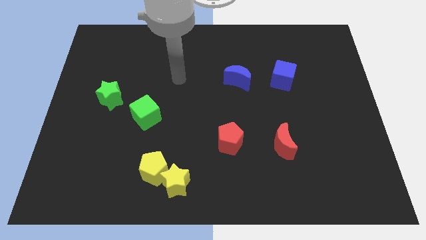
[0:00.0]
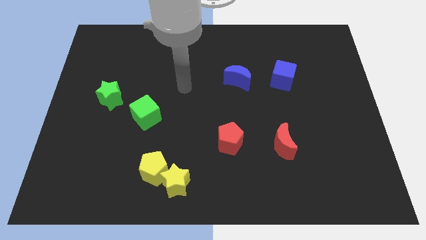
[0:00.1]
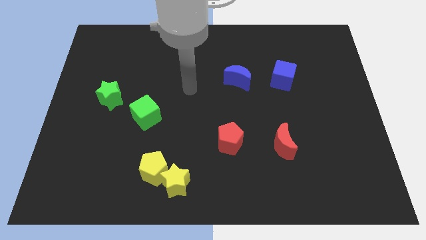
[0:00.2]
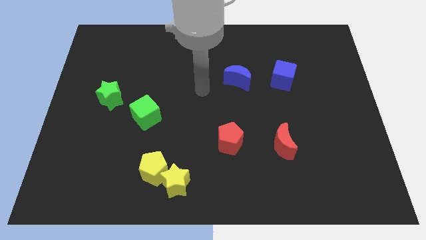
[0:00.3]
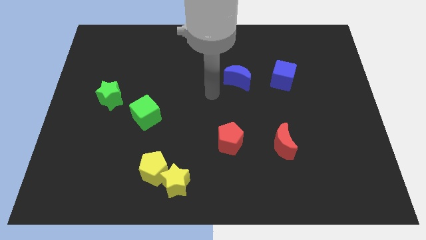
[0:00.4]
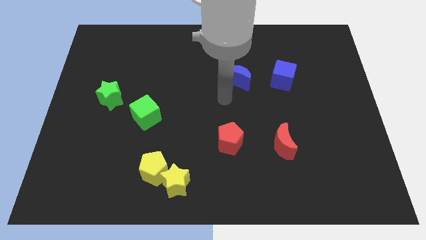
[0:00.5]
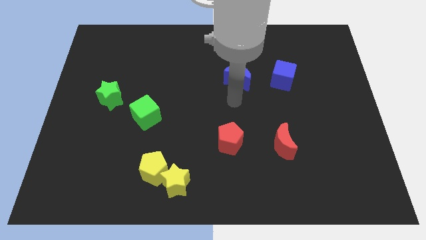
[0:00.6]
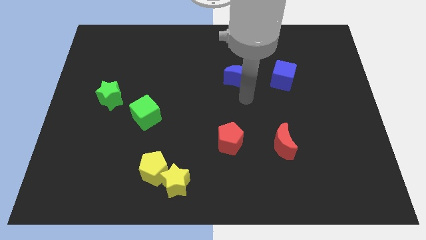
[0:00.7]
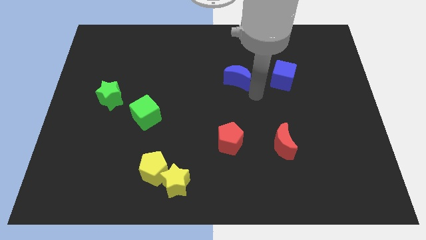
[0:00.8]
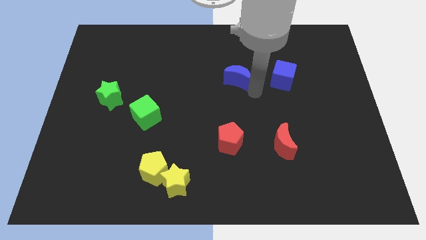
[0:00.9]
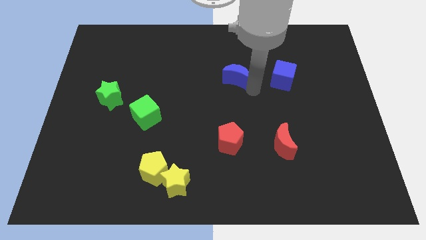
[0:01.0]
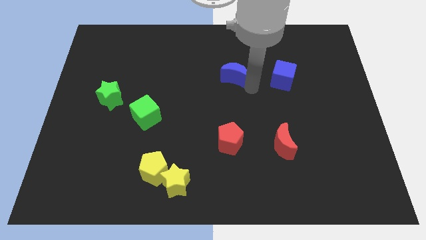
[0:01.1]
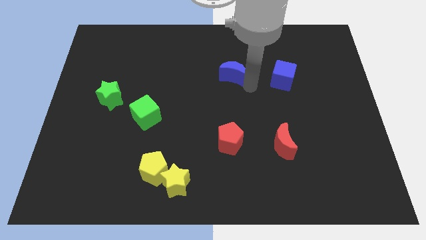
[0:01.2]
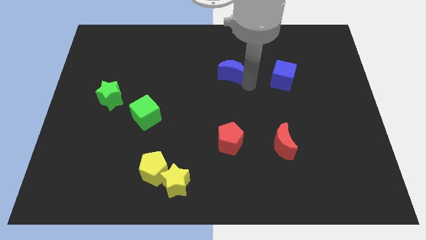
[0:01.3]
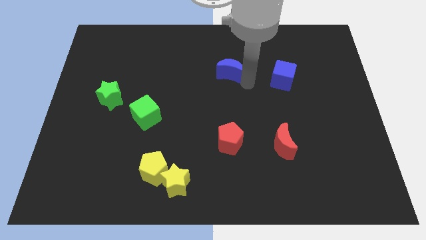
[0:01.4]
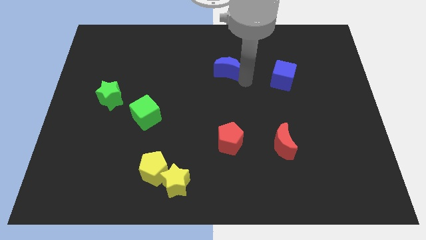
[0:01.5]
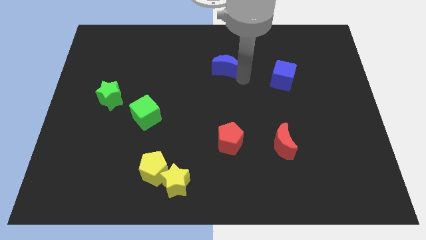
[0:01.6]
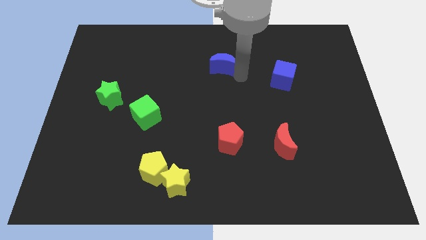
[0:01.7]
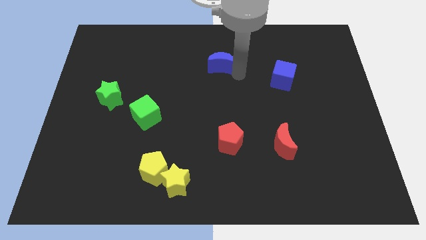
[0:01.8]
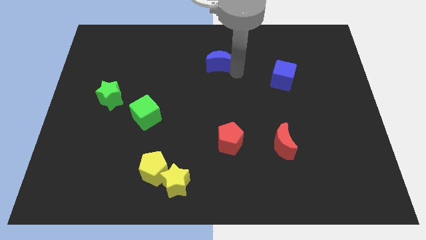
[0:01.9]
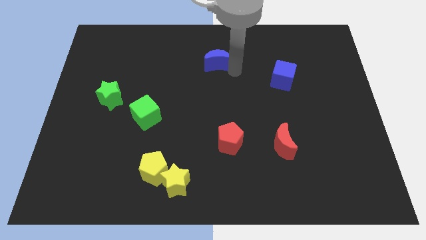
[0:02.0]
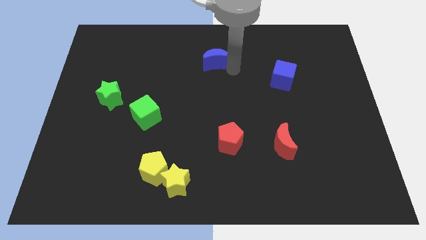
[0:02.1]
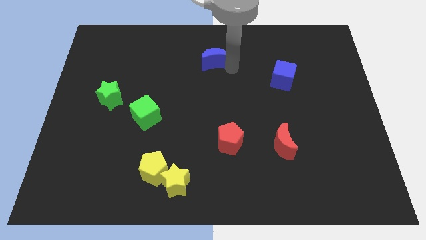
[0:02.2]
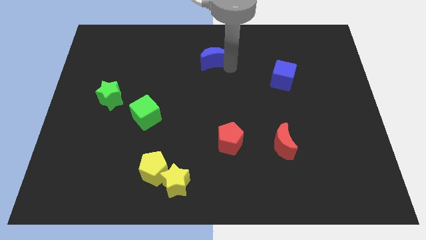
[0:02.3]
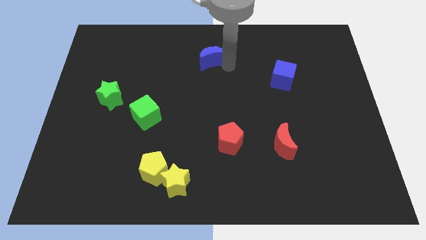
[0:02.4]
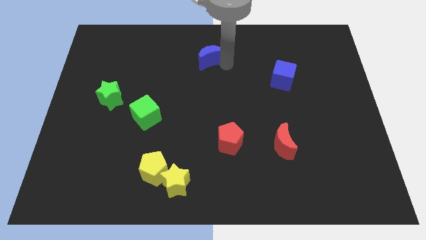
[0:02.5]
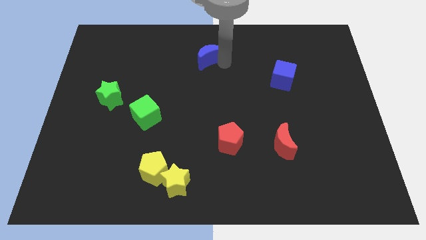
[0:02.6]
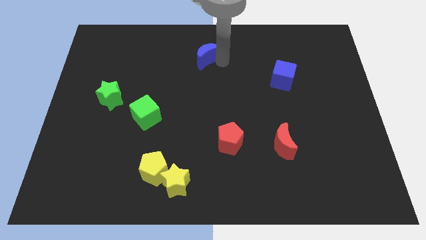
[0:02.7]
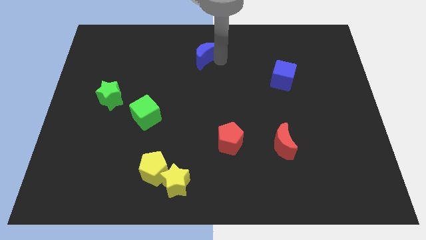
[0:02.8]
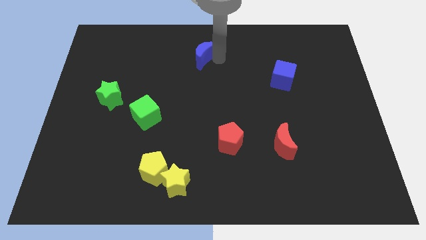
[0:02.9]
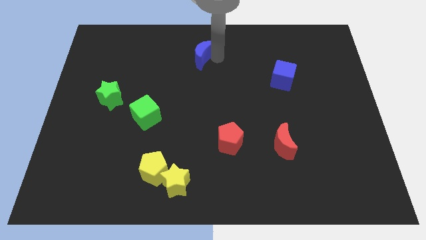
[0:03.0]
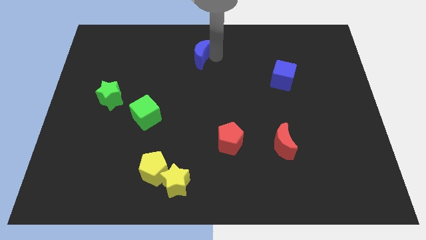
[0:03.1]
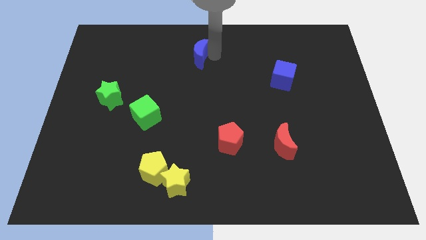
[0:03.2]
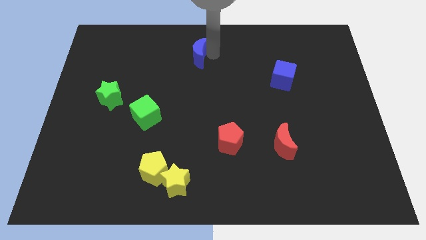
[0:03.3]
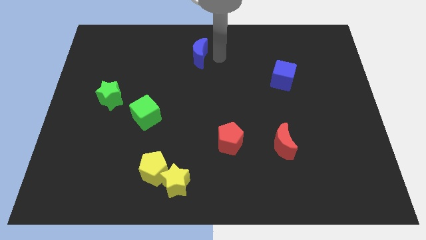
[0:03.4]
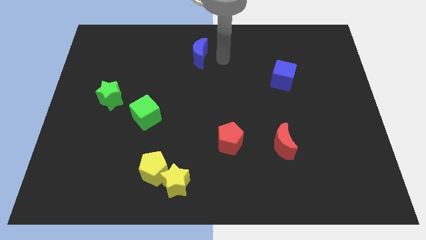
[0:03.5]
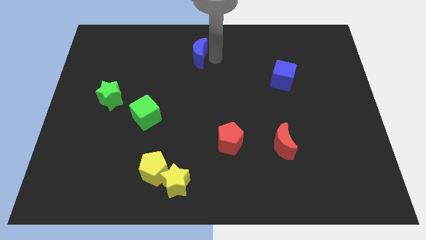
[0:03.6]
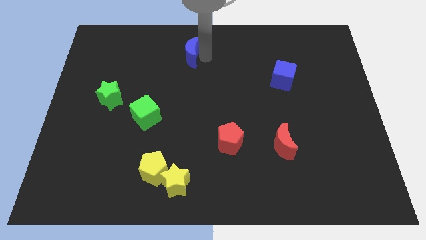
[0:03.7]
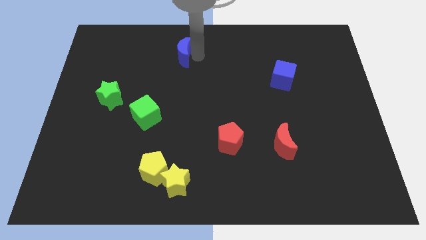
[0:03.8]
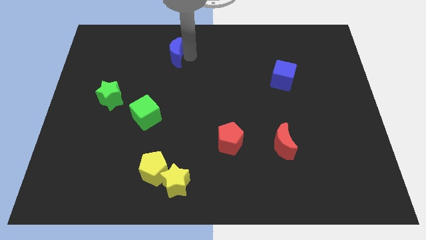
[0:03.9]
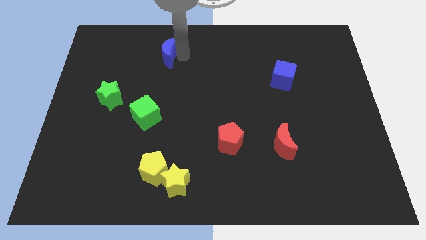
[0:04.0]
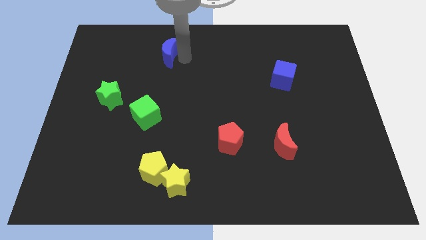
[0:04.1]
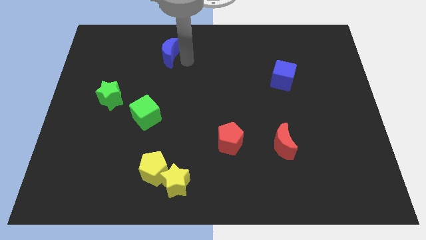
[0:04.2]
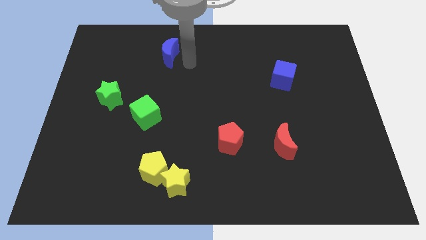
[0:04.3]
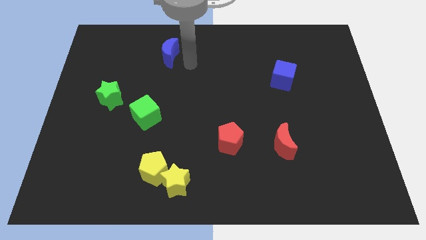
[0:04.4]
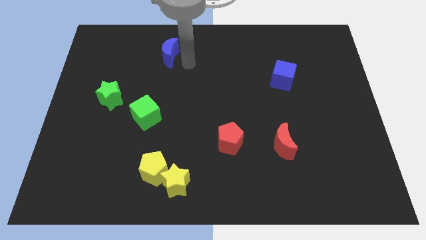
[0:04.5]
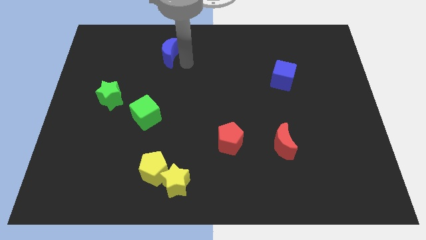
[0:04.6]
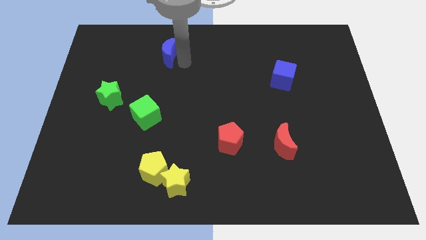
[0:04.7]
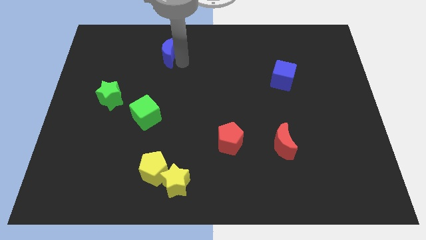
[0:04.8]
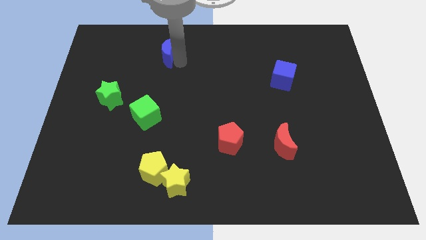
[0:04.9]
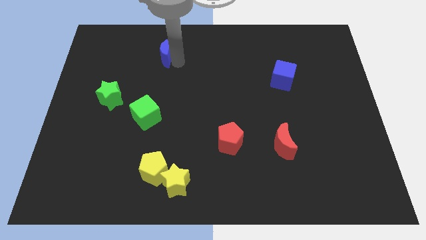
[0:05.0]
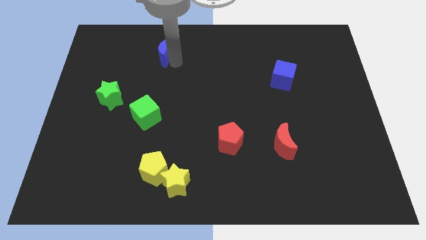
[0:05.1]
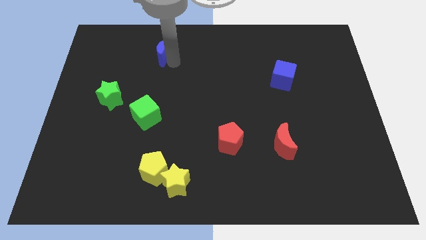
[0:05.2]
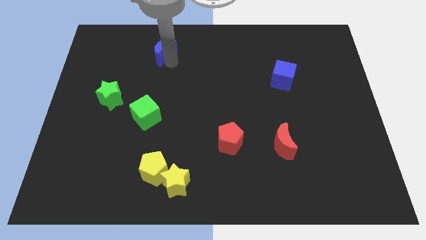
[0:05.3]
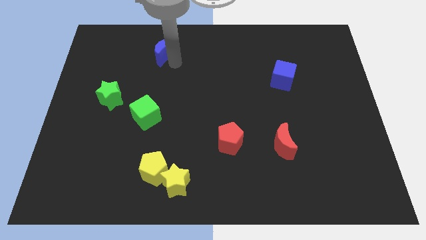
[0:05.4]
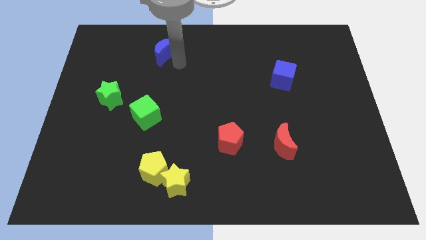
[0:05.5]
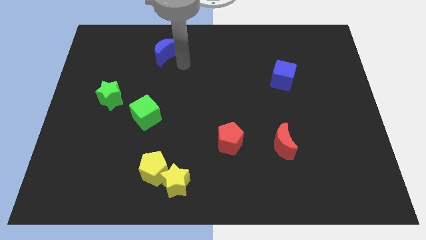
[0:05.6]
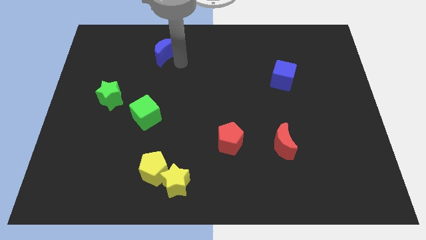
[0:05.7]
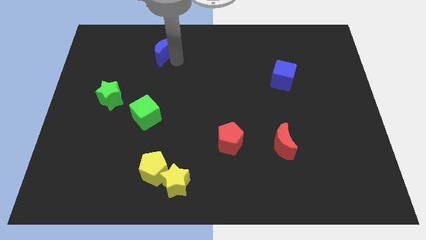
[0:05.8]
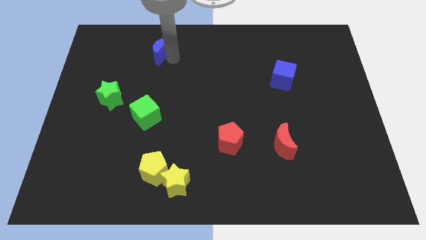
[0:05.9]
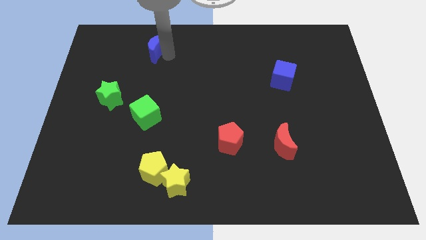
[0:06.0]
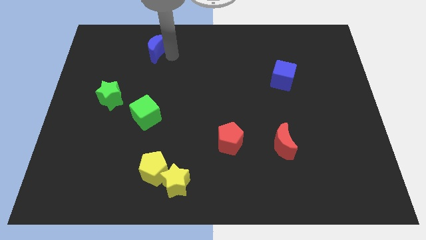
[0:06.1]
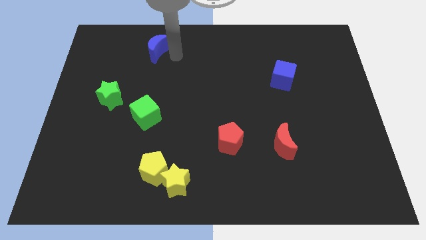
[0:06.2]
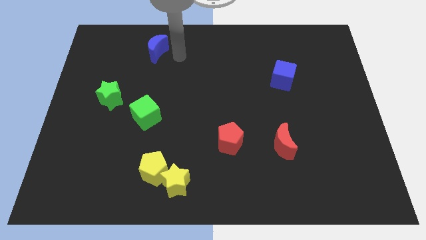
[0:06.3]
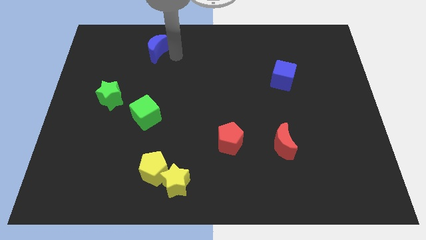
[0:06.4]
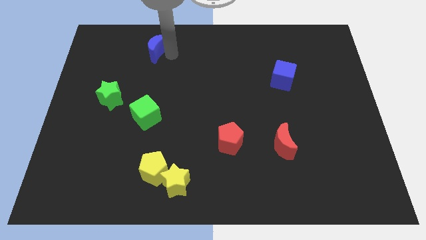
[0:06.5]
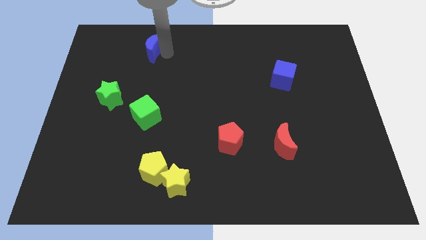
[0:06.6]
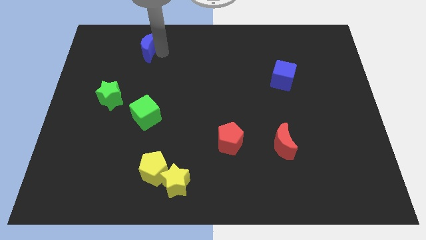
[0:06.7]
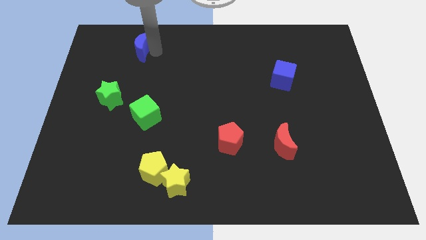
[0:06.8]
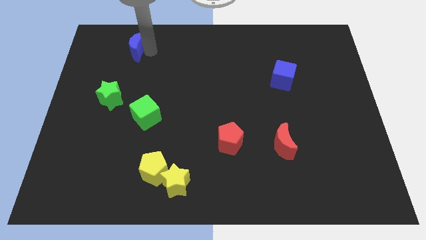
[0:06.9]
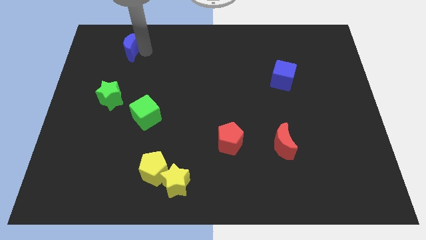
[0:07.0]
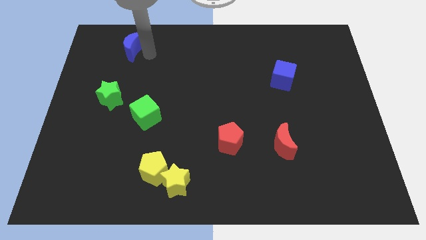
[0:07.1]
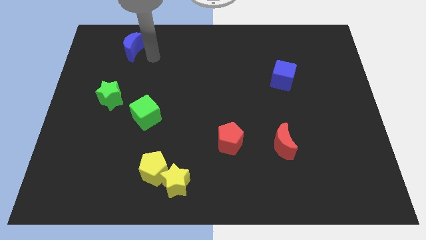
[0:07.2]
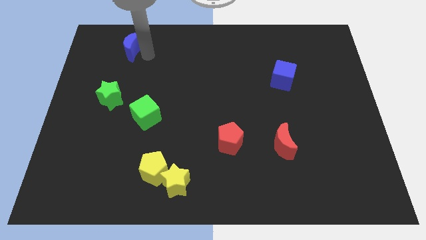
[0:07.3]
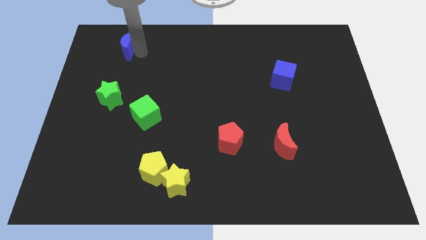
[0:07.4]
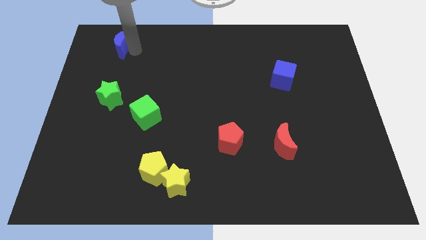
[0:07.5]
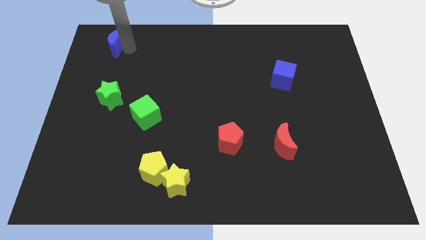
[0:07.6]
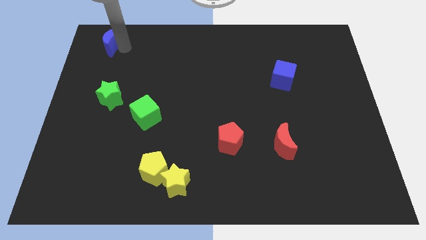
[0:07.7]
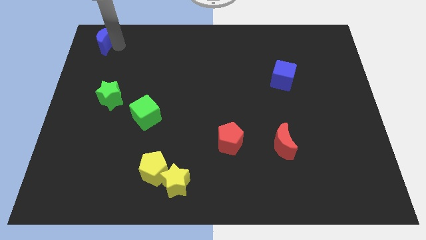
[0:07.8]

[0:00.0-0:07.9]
put the blue moon to the top left corner
